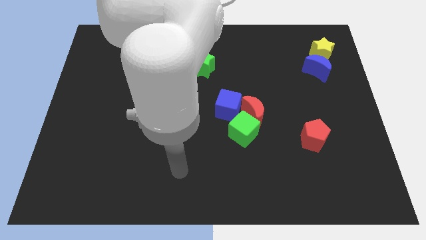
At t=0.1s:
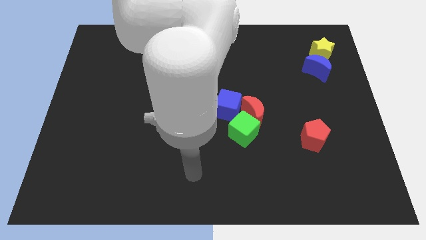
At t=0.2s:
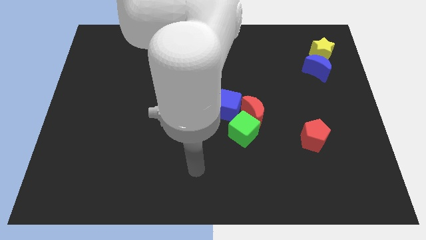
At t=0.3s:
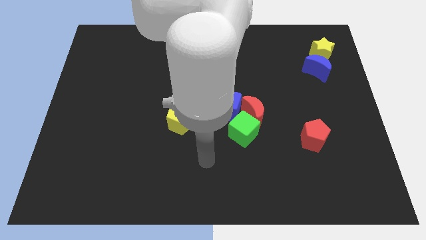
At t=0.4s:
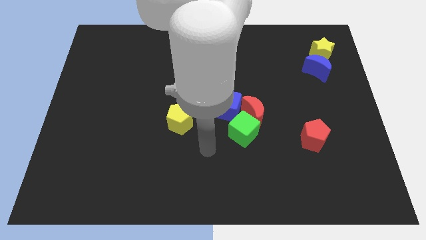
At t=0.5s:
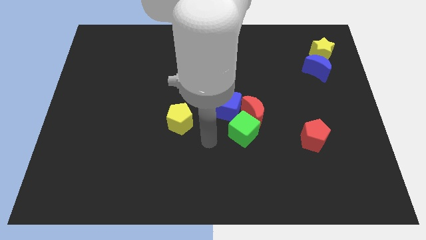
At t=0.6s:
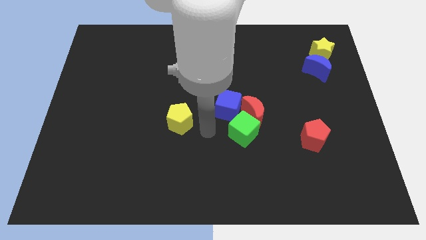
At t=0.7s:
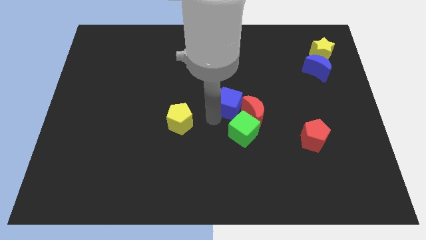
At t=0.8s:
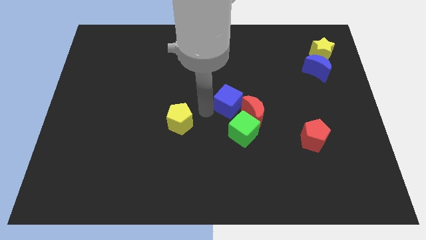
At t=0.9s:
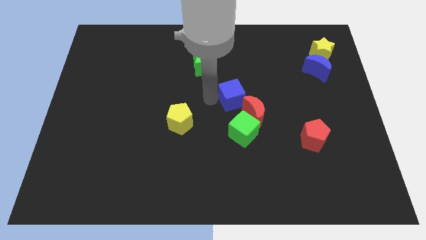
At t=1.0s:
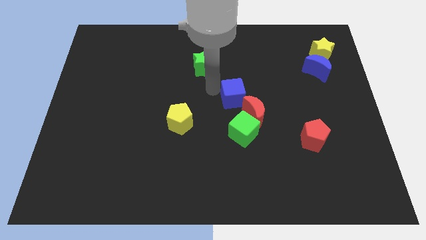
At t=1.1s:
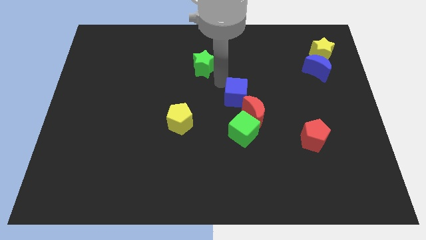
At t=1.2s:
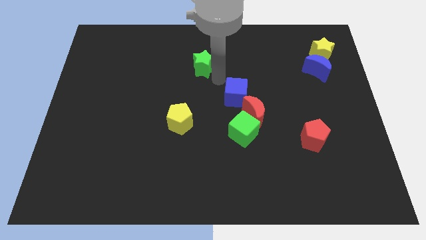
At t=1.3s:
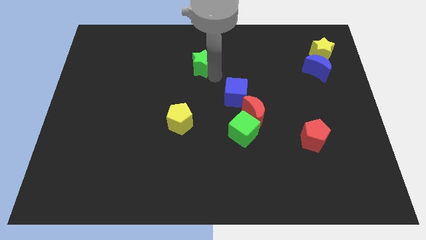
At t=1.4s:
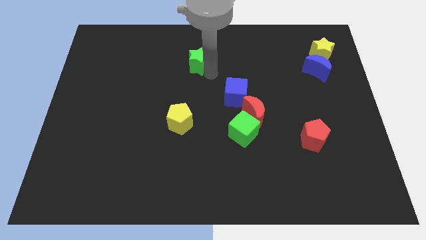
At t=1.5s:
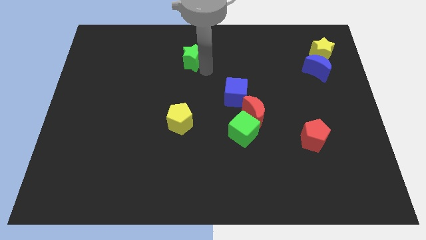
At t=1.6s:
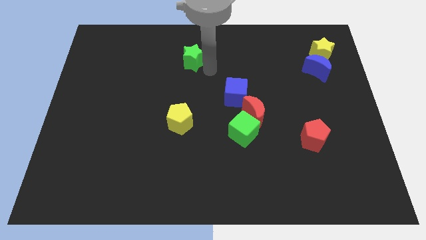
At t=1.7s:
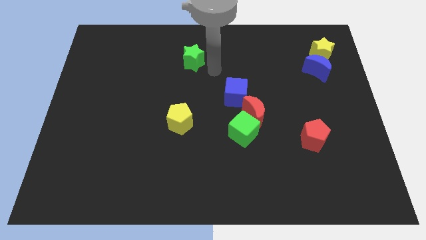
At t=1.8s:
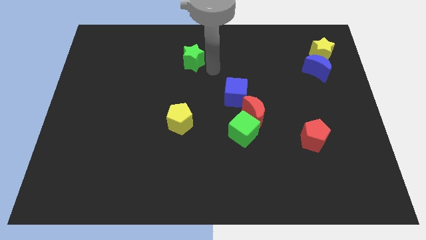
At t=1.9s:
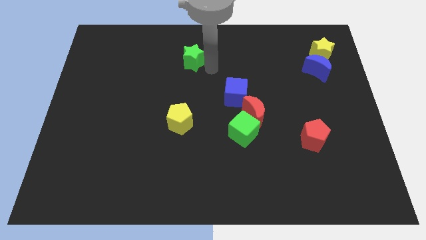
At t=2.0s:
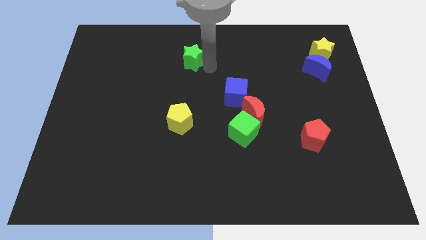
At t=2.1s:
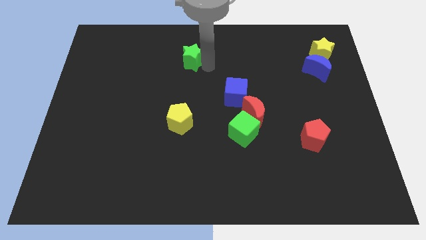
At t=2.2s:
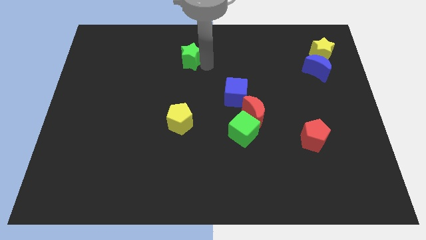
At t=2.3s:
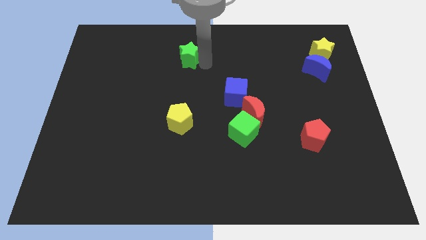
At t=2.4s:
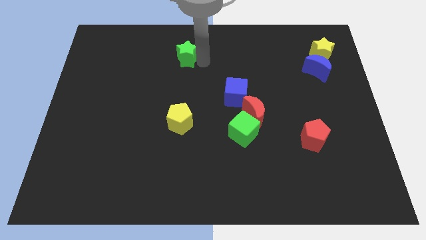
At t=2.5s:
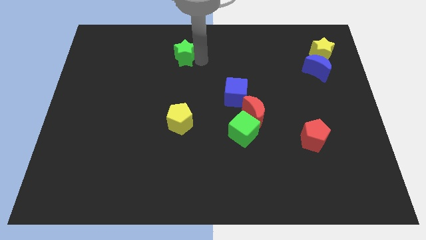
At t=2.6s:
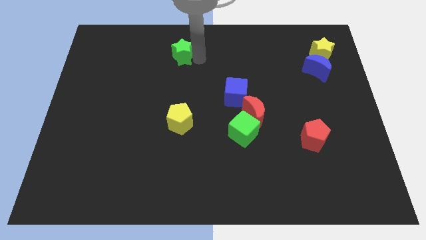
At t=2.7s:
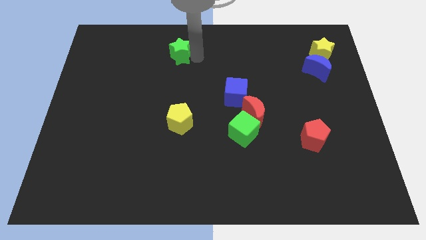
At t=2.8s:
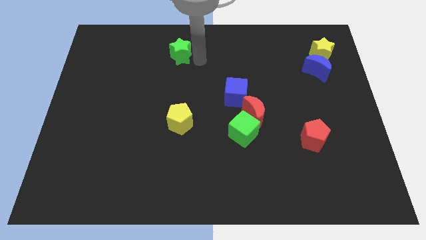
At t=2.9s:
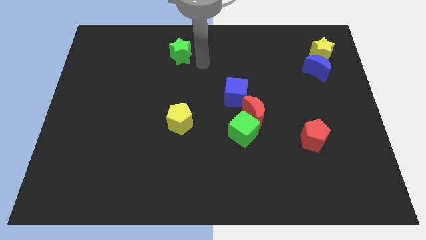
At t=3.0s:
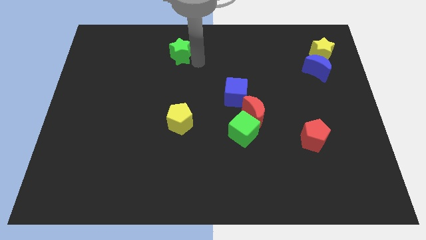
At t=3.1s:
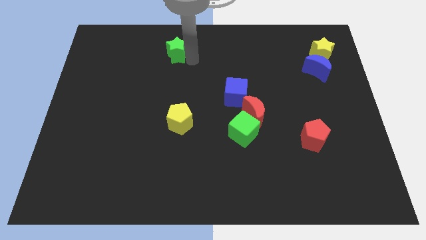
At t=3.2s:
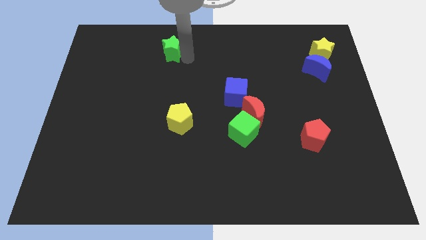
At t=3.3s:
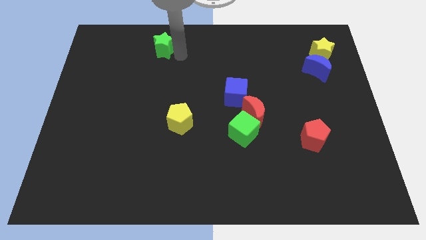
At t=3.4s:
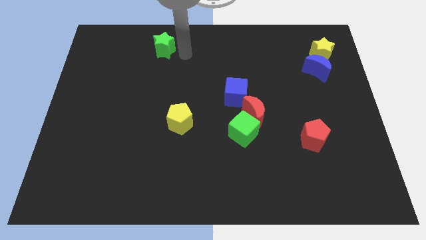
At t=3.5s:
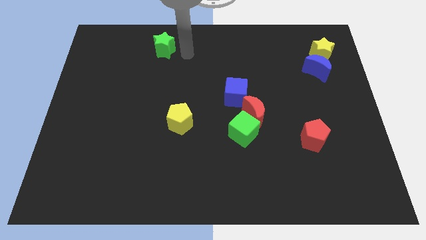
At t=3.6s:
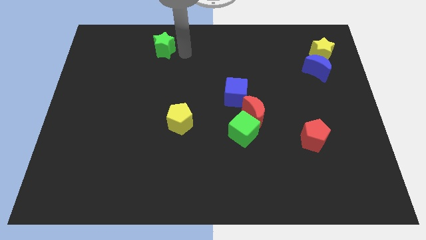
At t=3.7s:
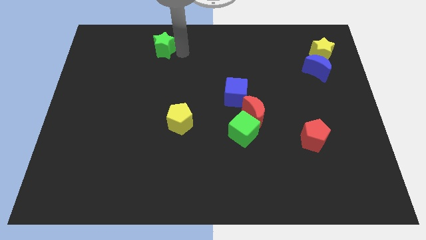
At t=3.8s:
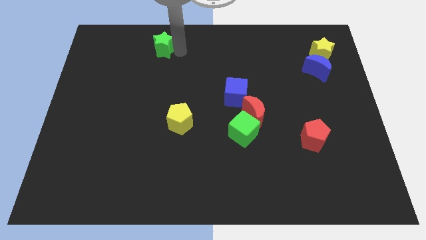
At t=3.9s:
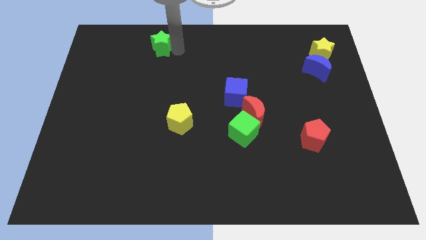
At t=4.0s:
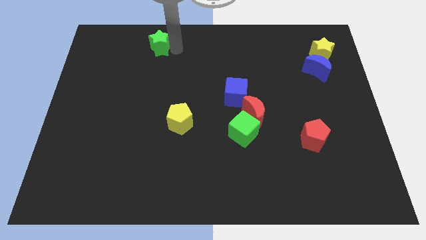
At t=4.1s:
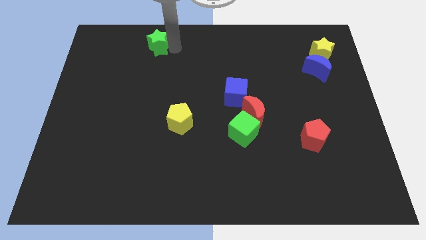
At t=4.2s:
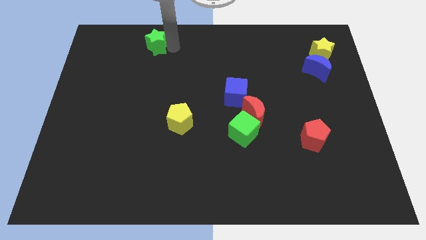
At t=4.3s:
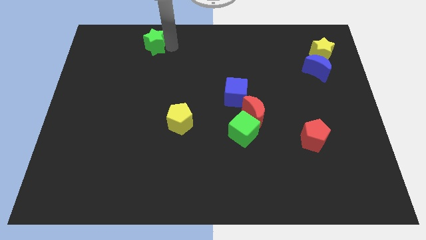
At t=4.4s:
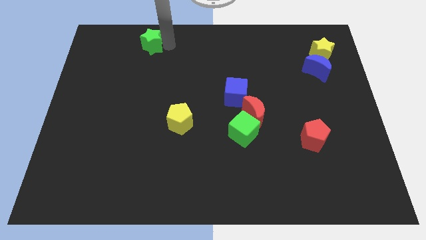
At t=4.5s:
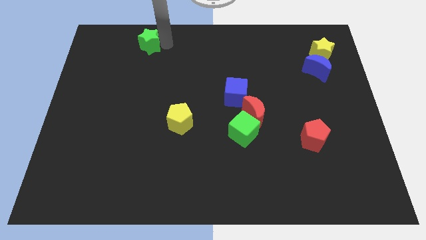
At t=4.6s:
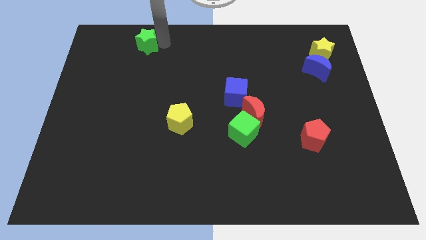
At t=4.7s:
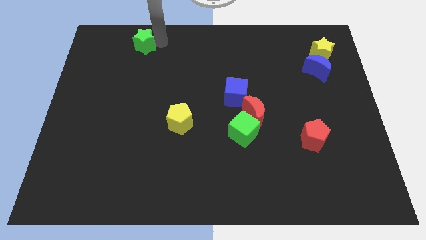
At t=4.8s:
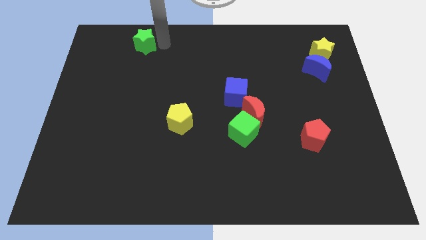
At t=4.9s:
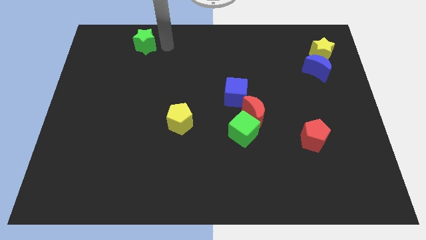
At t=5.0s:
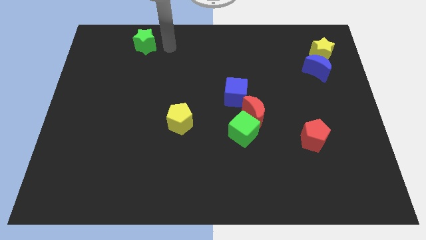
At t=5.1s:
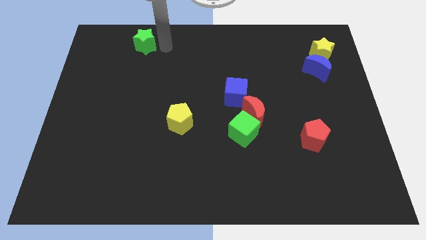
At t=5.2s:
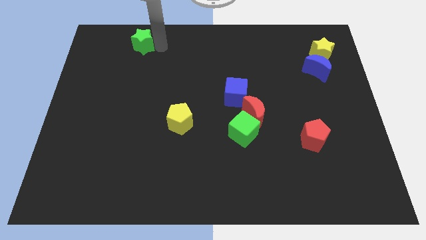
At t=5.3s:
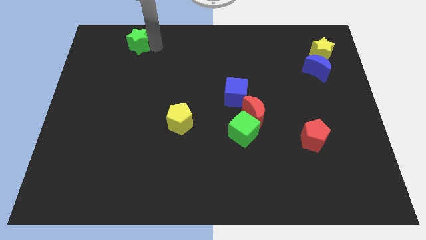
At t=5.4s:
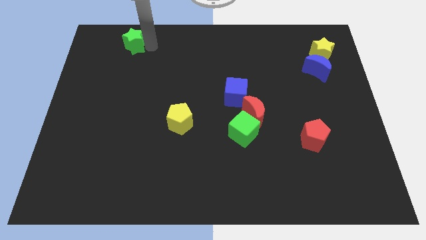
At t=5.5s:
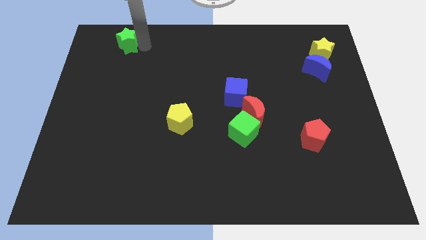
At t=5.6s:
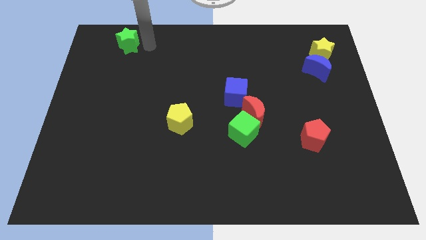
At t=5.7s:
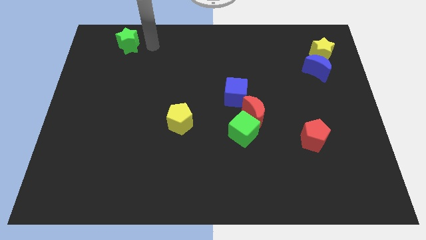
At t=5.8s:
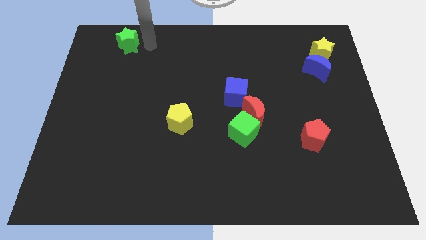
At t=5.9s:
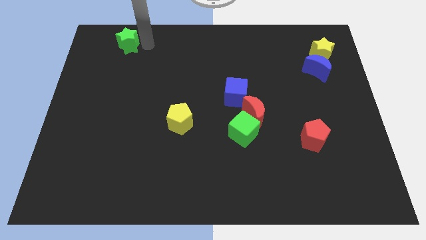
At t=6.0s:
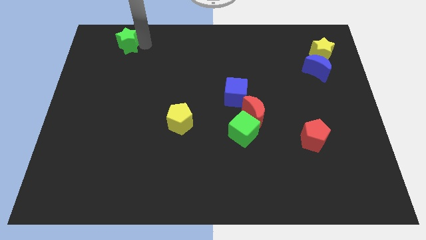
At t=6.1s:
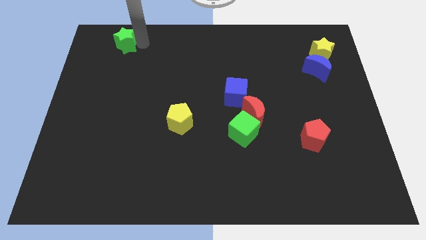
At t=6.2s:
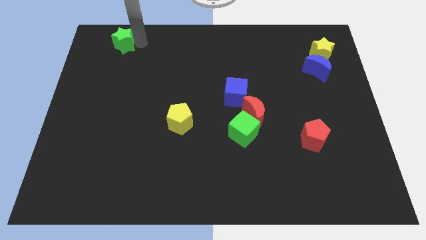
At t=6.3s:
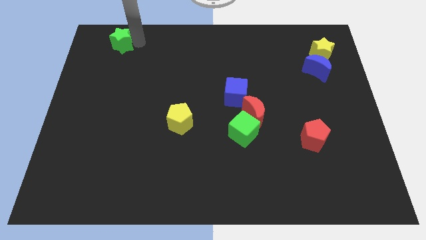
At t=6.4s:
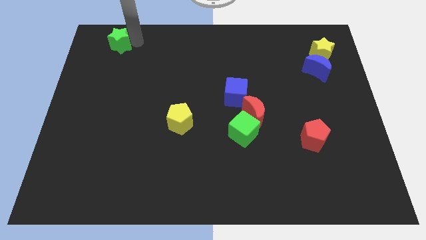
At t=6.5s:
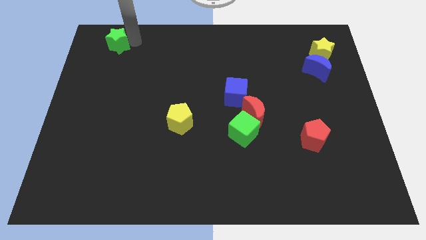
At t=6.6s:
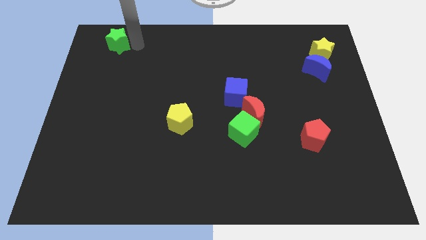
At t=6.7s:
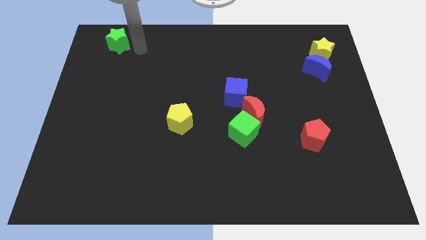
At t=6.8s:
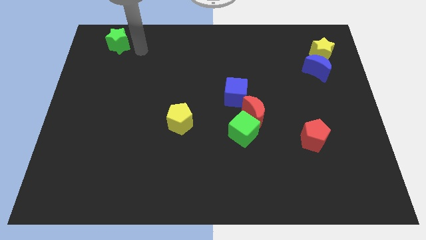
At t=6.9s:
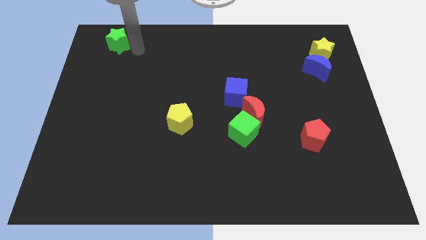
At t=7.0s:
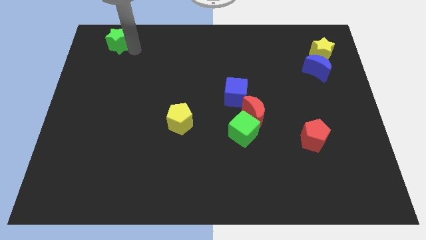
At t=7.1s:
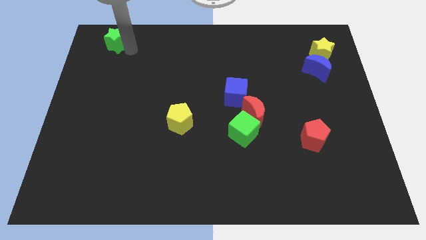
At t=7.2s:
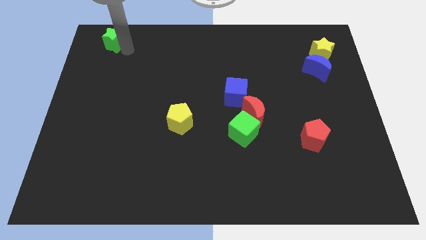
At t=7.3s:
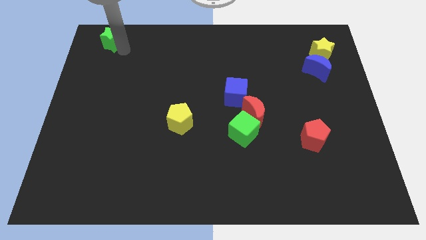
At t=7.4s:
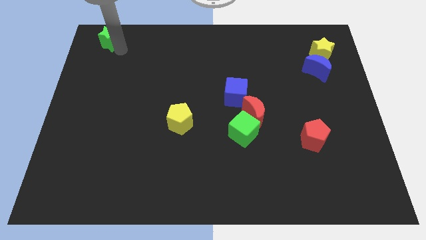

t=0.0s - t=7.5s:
move the green star to the top left
